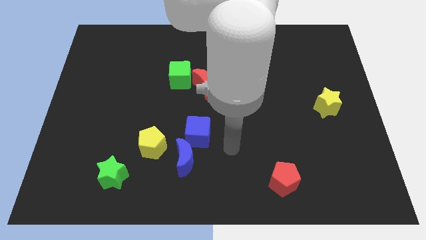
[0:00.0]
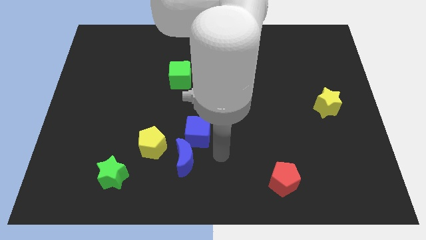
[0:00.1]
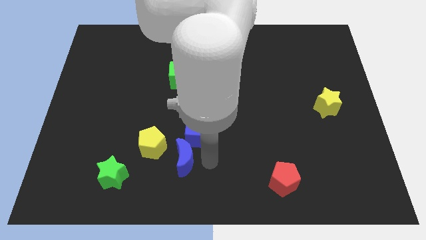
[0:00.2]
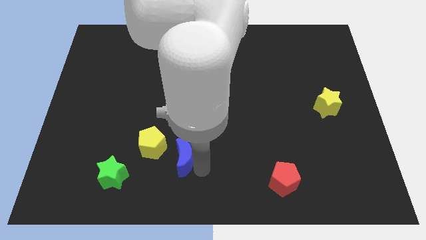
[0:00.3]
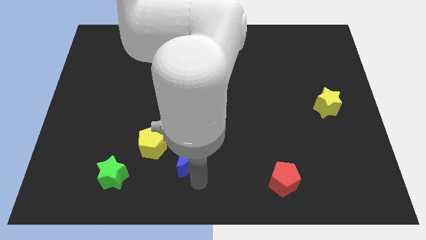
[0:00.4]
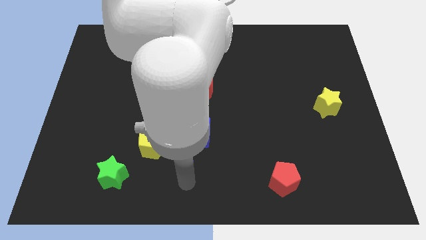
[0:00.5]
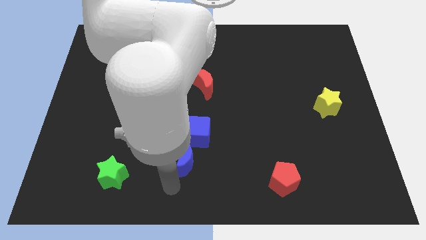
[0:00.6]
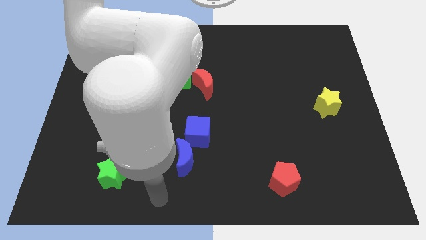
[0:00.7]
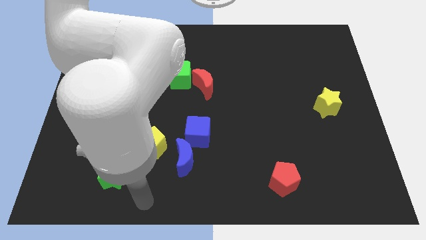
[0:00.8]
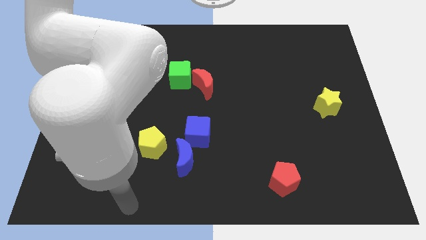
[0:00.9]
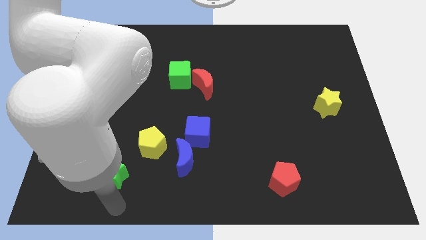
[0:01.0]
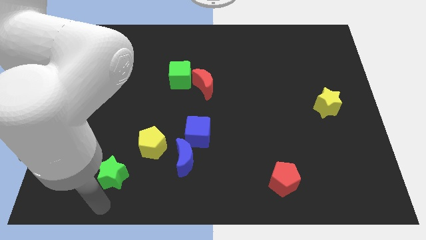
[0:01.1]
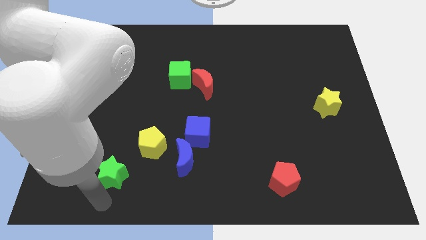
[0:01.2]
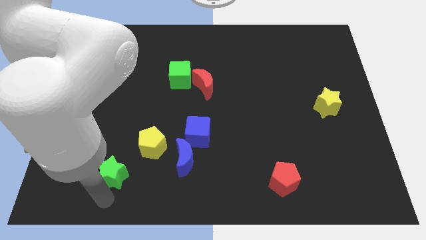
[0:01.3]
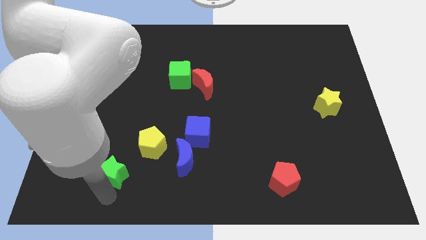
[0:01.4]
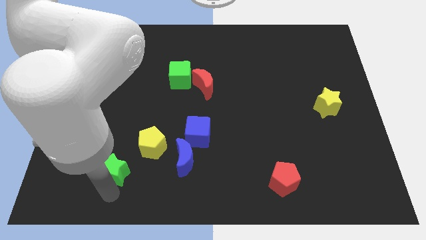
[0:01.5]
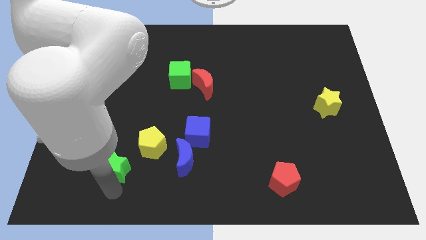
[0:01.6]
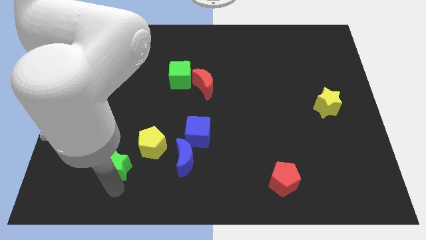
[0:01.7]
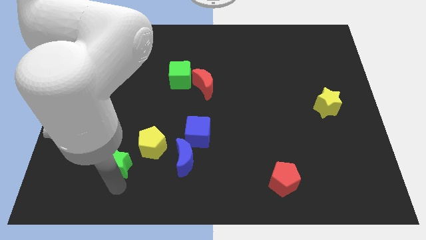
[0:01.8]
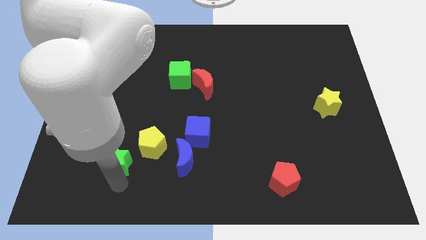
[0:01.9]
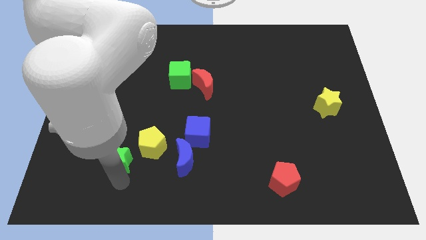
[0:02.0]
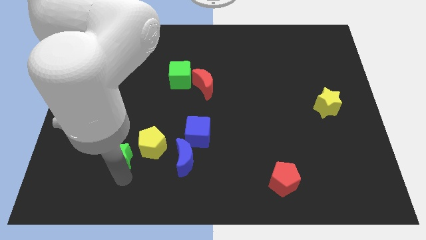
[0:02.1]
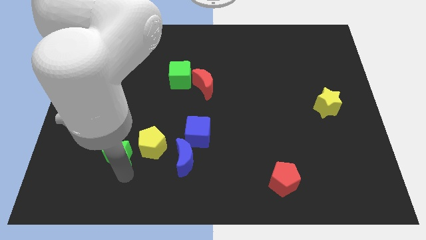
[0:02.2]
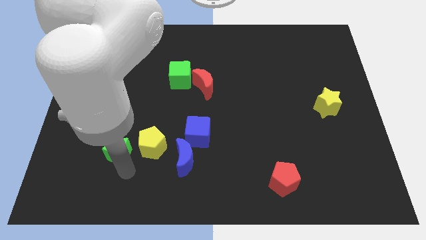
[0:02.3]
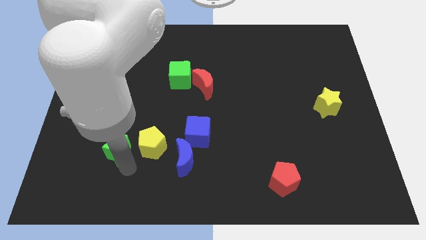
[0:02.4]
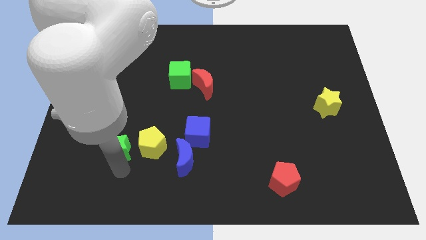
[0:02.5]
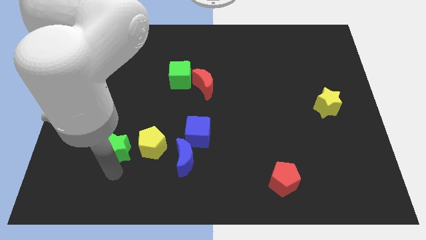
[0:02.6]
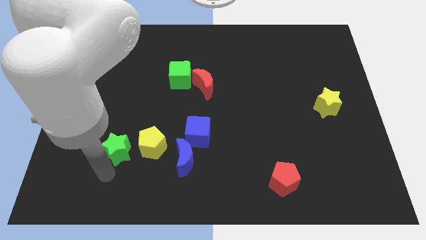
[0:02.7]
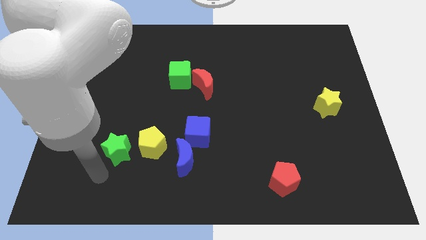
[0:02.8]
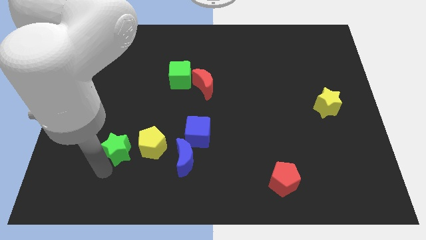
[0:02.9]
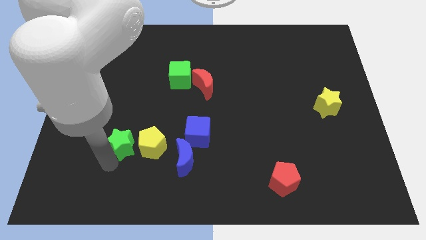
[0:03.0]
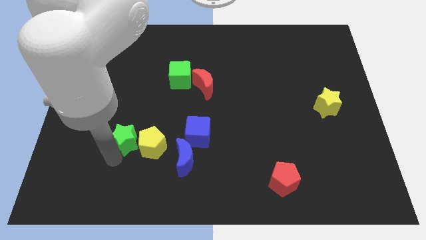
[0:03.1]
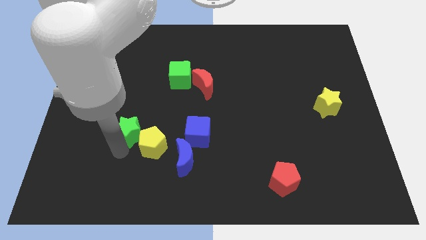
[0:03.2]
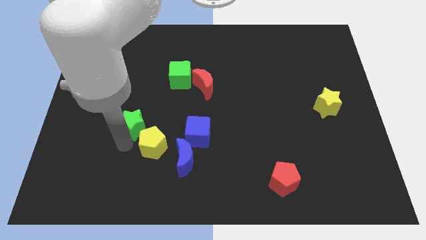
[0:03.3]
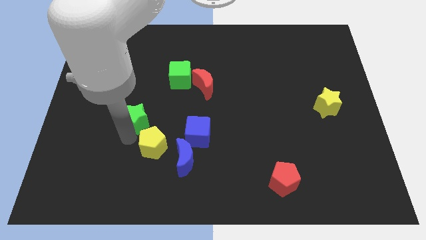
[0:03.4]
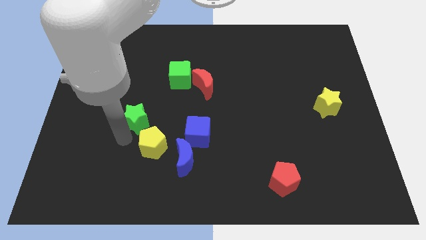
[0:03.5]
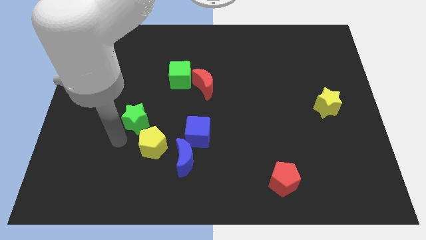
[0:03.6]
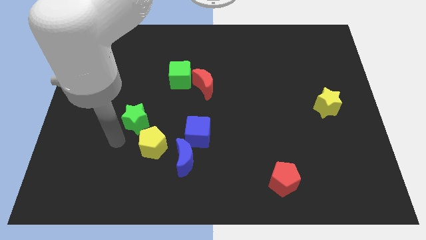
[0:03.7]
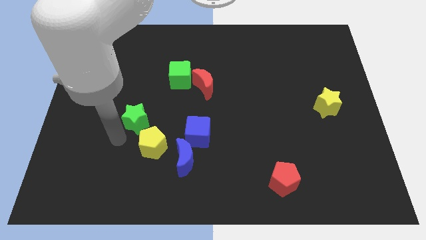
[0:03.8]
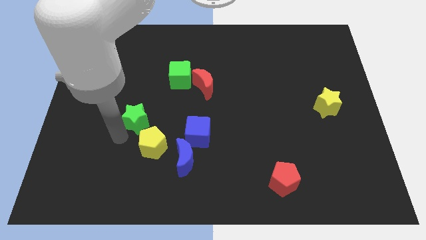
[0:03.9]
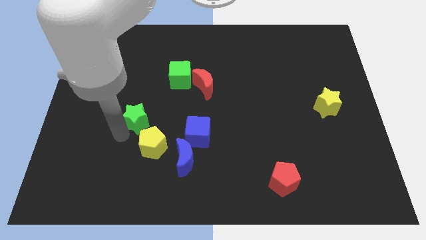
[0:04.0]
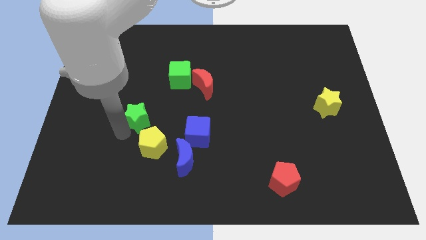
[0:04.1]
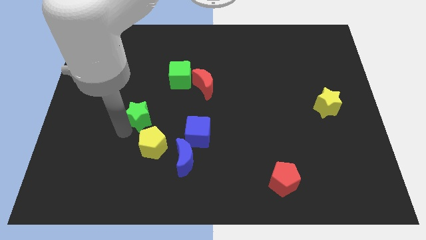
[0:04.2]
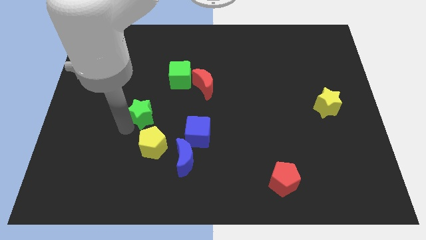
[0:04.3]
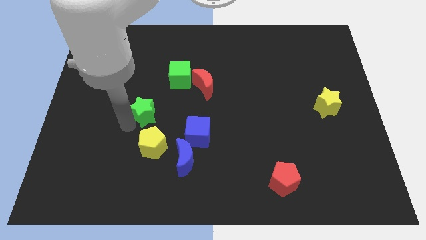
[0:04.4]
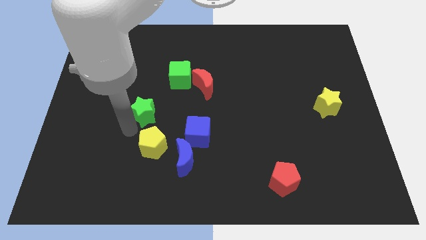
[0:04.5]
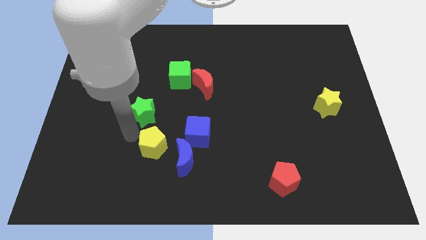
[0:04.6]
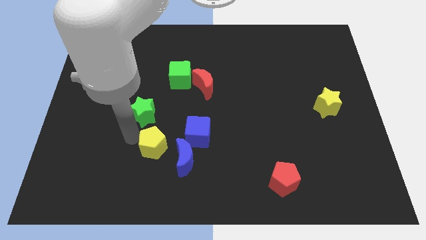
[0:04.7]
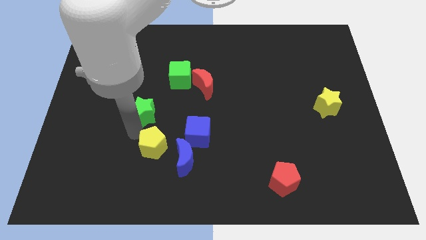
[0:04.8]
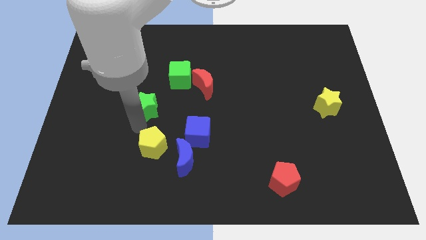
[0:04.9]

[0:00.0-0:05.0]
slide the green star to the bottom left of the green cube

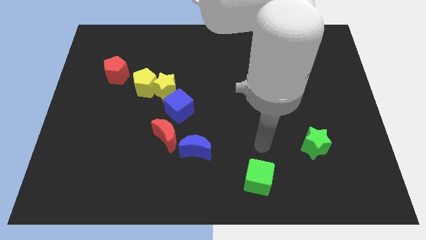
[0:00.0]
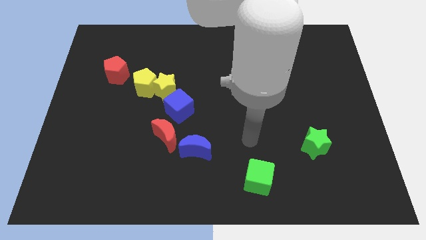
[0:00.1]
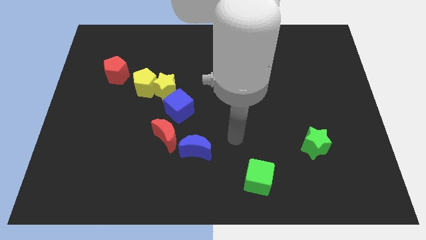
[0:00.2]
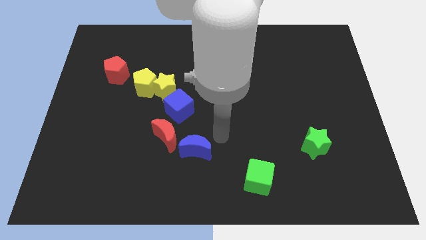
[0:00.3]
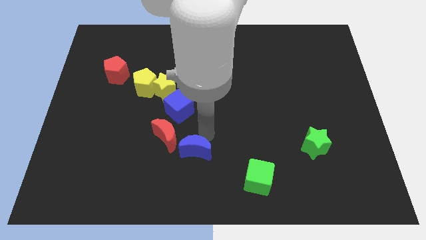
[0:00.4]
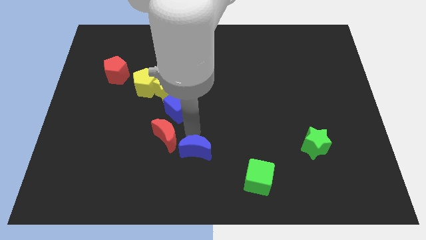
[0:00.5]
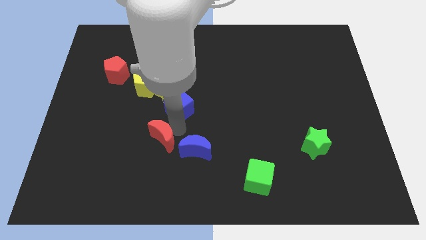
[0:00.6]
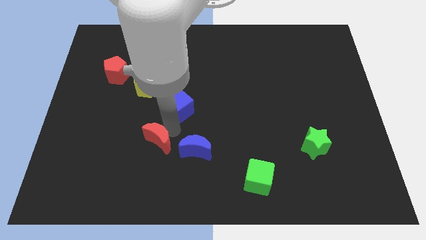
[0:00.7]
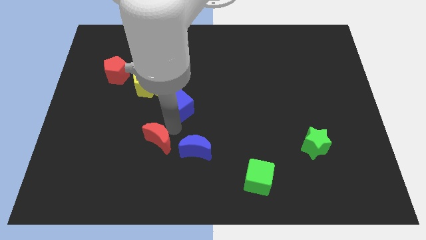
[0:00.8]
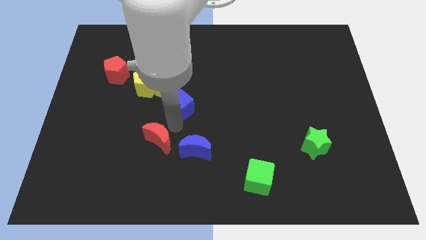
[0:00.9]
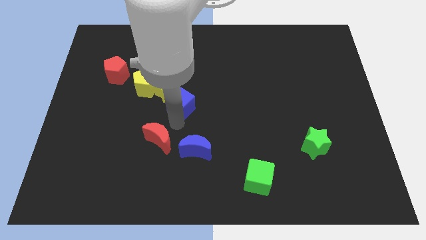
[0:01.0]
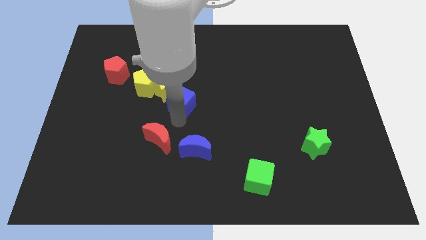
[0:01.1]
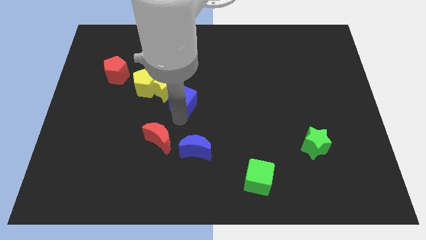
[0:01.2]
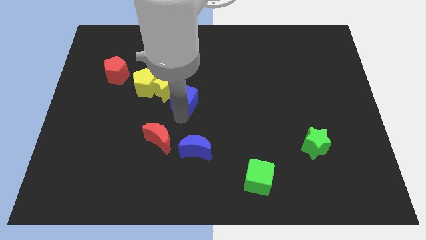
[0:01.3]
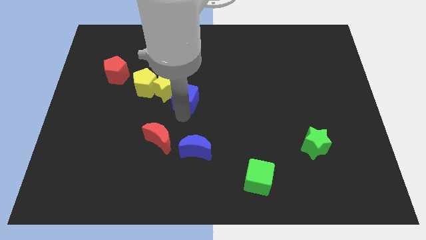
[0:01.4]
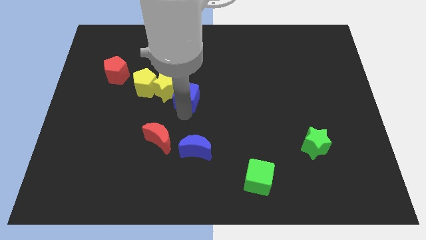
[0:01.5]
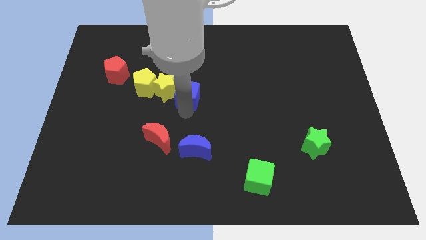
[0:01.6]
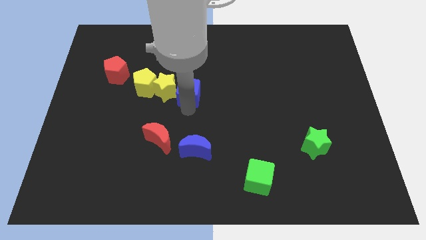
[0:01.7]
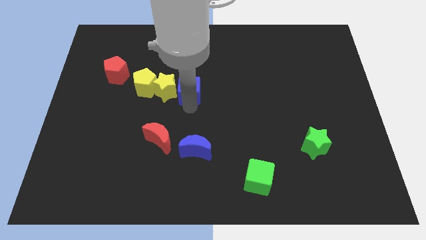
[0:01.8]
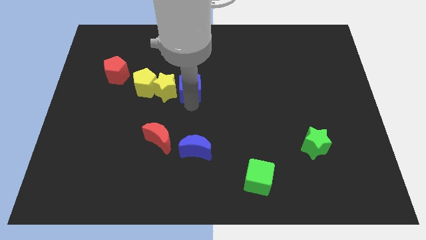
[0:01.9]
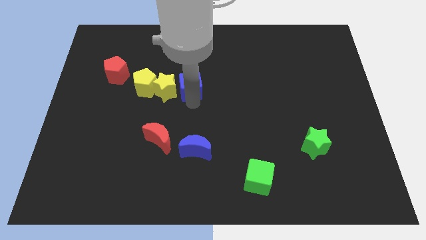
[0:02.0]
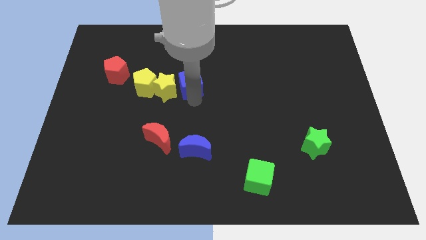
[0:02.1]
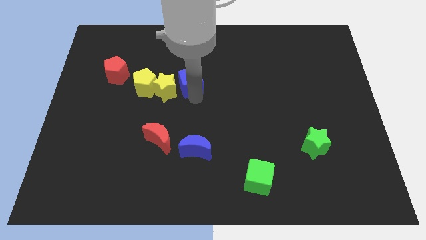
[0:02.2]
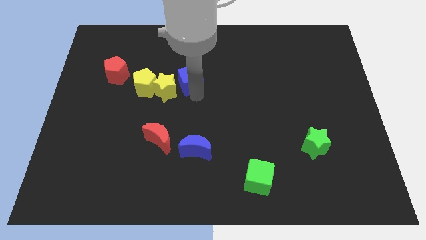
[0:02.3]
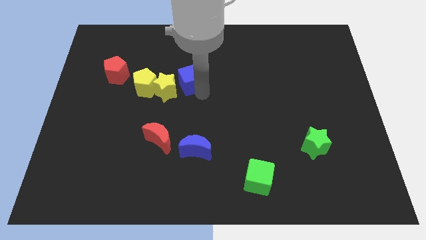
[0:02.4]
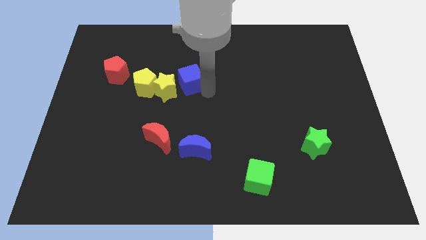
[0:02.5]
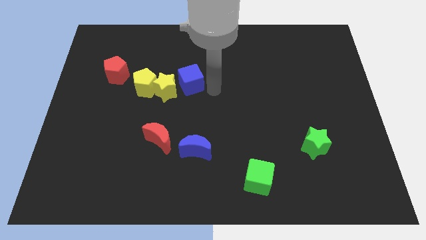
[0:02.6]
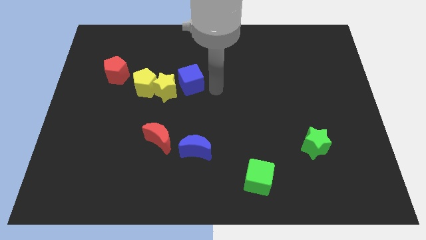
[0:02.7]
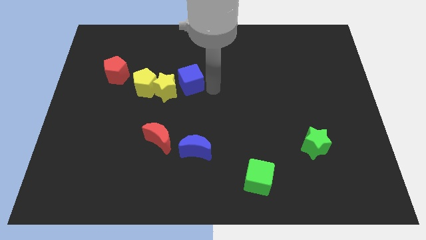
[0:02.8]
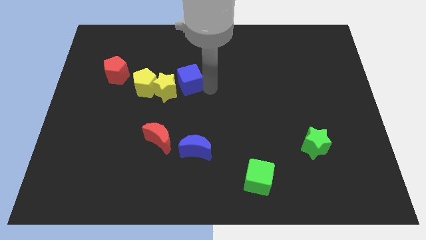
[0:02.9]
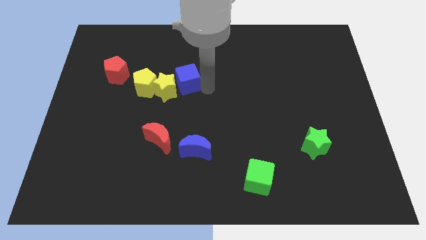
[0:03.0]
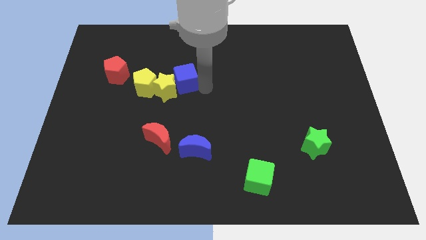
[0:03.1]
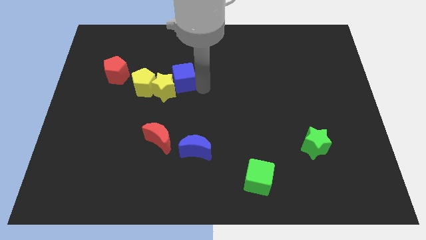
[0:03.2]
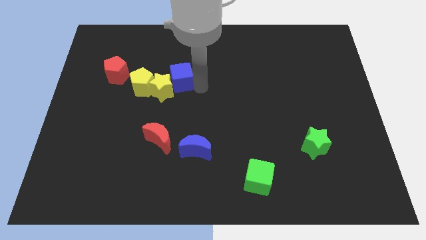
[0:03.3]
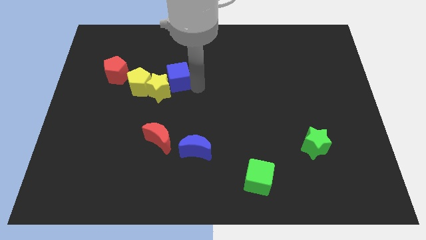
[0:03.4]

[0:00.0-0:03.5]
move the blue cube to the right of the red pentagon
